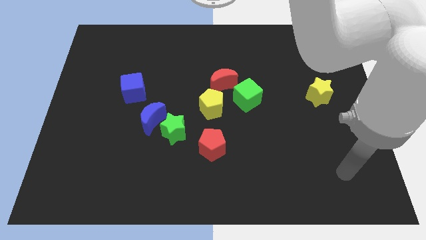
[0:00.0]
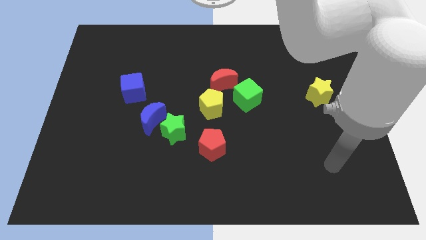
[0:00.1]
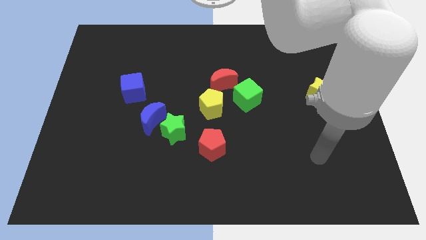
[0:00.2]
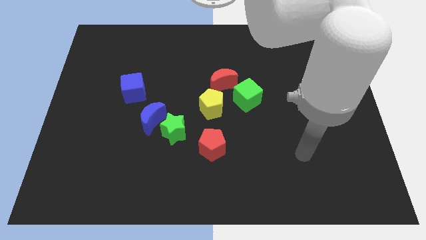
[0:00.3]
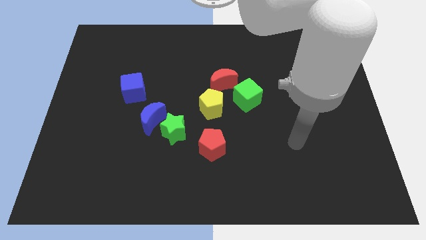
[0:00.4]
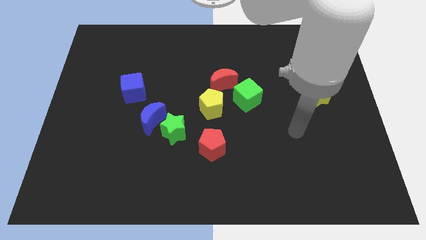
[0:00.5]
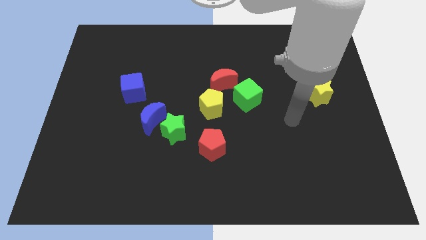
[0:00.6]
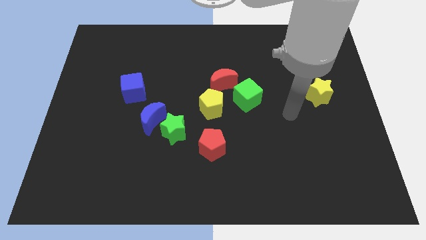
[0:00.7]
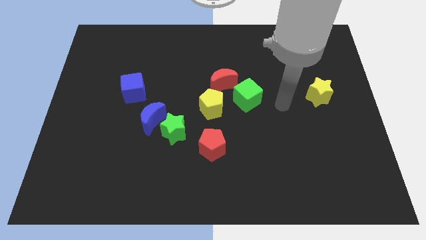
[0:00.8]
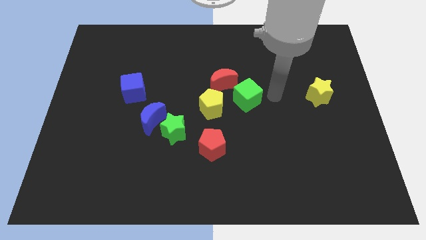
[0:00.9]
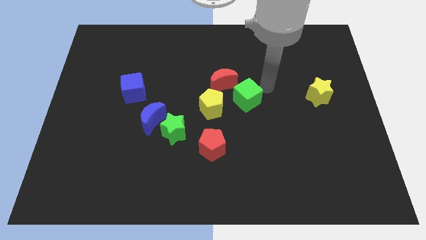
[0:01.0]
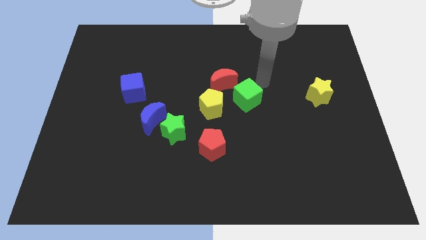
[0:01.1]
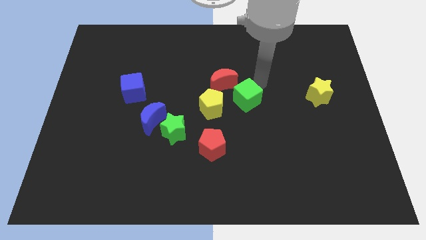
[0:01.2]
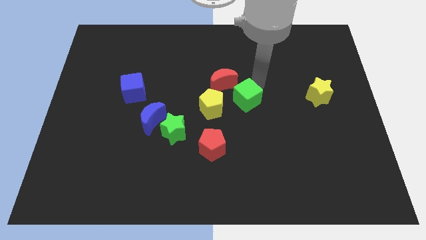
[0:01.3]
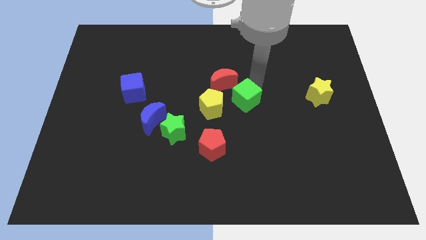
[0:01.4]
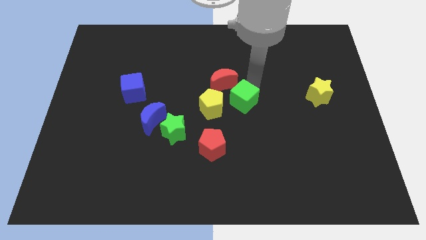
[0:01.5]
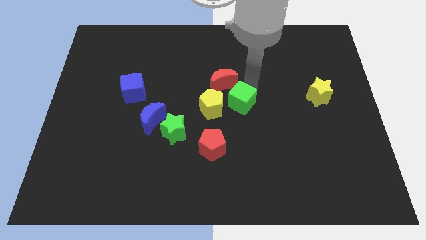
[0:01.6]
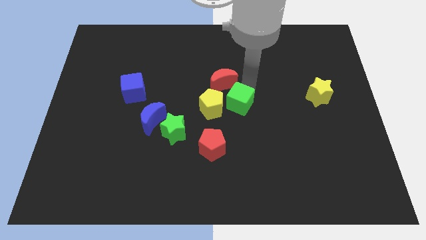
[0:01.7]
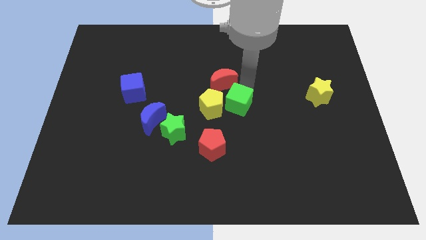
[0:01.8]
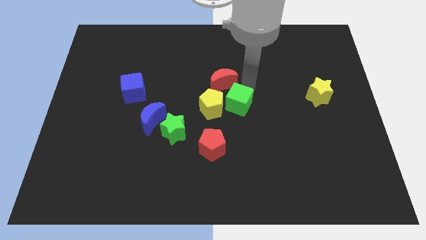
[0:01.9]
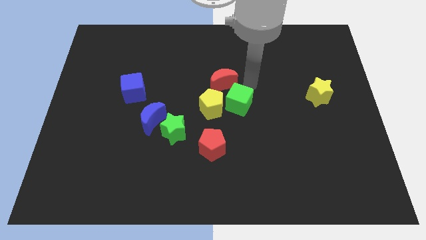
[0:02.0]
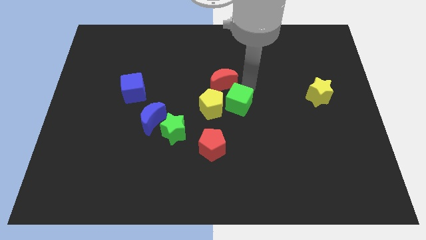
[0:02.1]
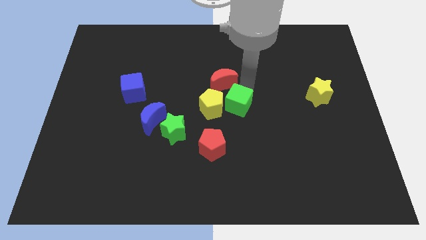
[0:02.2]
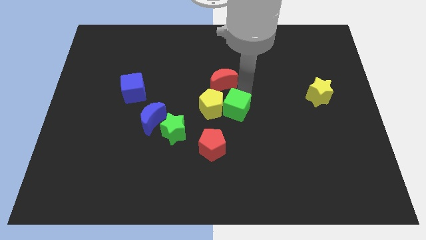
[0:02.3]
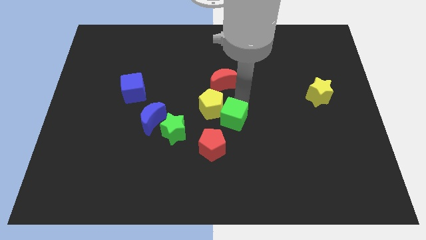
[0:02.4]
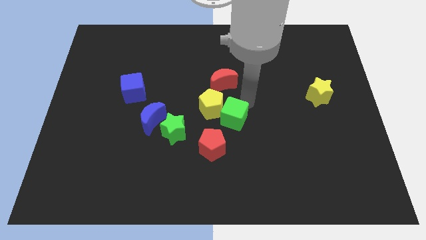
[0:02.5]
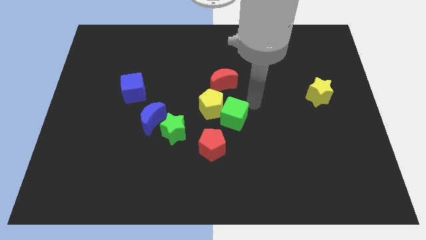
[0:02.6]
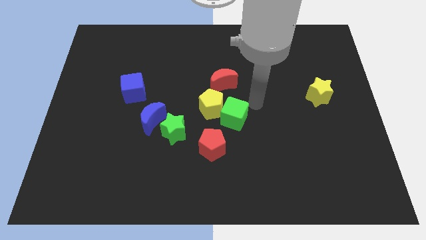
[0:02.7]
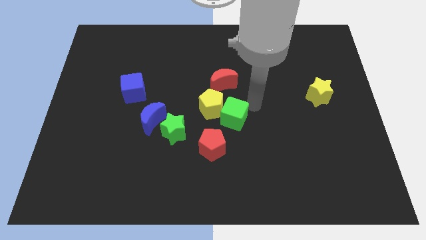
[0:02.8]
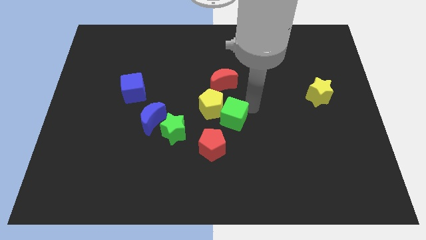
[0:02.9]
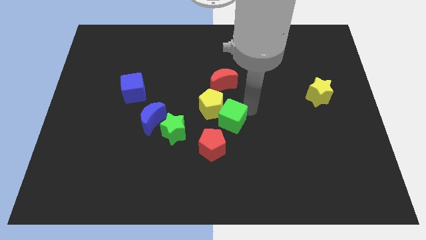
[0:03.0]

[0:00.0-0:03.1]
slide the green cube a little bit downwards and to the left diagonally

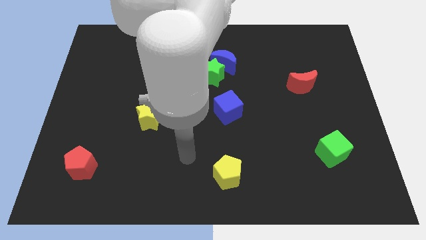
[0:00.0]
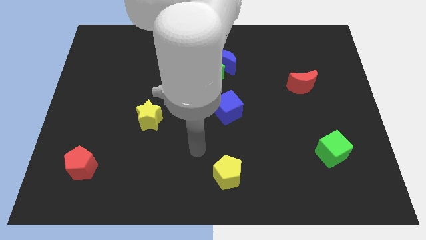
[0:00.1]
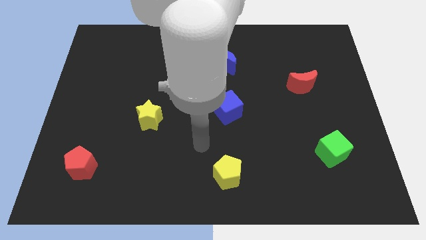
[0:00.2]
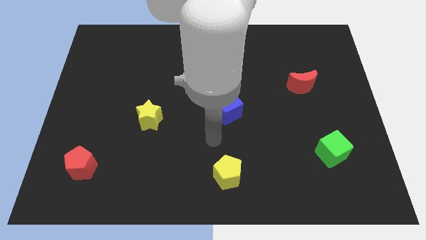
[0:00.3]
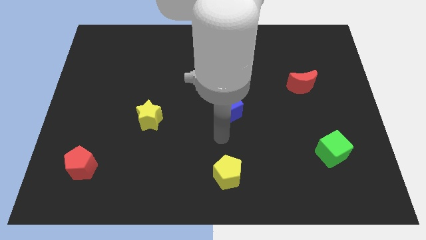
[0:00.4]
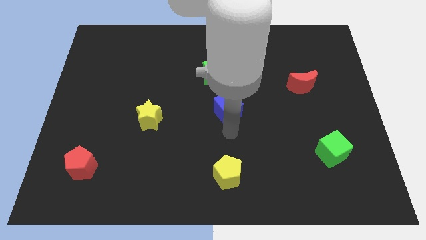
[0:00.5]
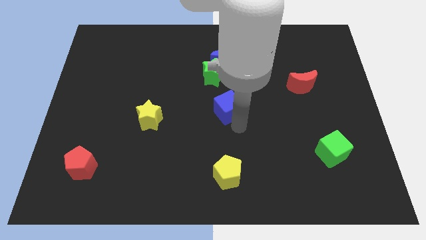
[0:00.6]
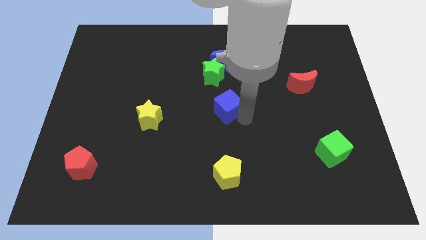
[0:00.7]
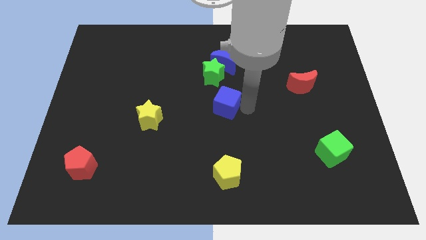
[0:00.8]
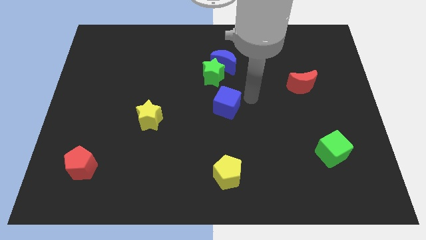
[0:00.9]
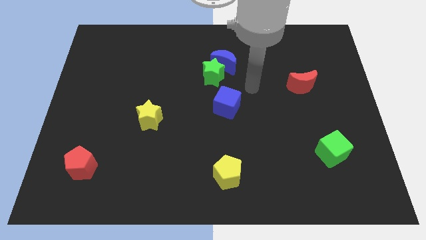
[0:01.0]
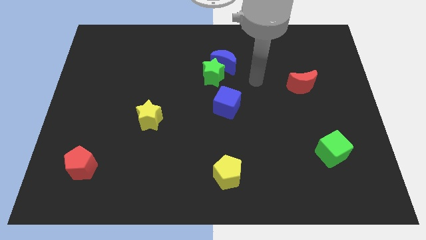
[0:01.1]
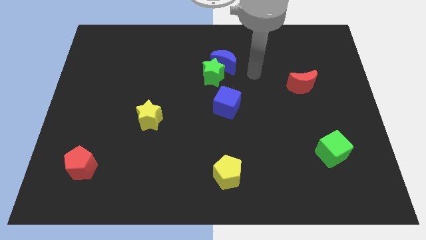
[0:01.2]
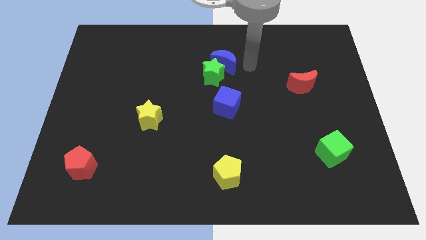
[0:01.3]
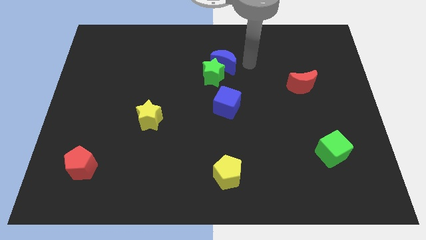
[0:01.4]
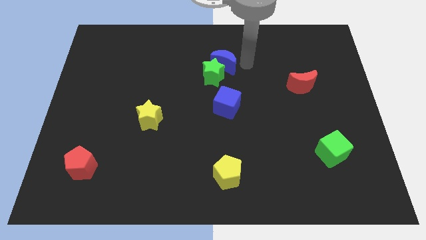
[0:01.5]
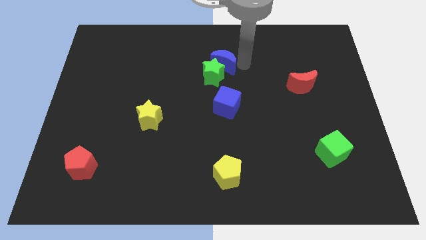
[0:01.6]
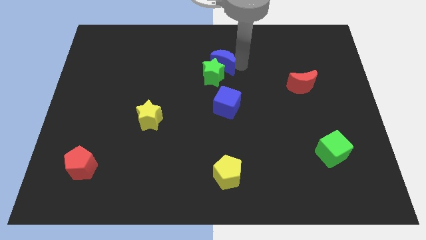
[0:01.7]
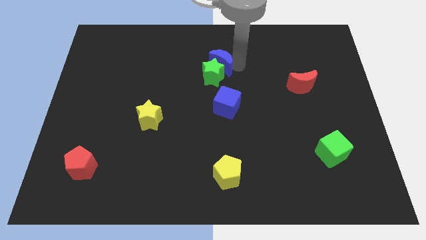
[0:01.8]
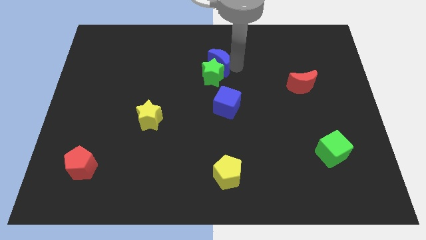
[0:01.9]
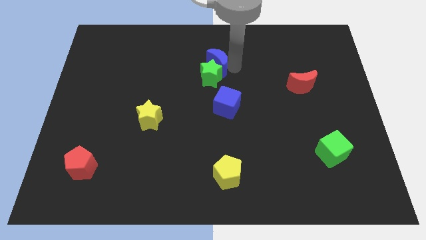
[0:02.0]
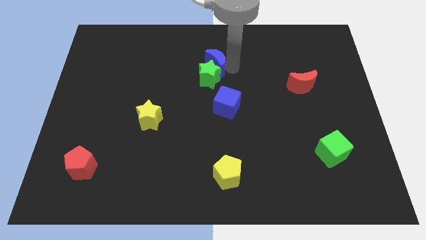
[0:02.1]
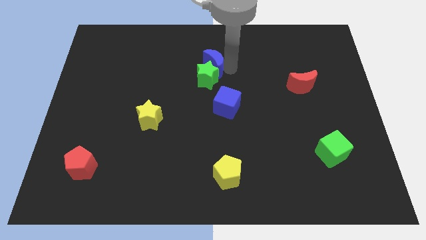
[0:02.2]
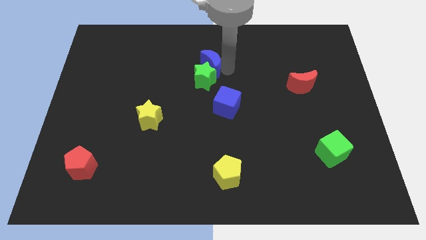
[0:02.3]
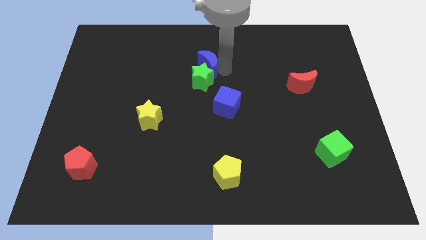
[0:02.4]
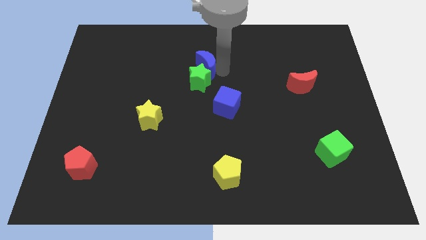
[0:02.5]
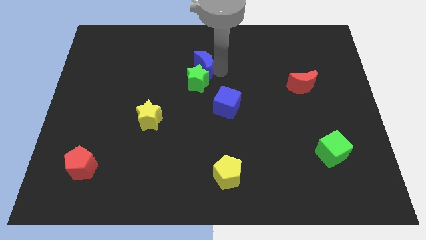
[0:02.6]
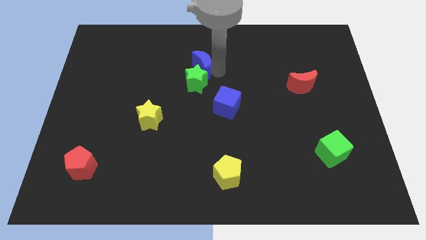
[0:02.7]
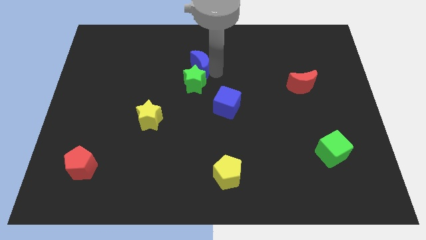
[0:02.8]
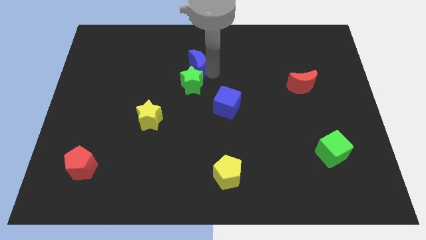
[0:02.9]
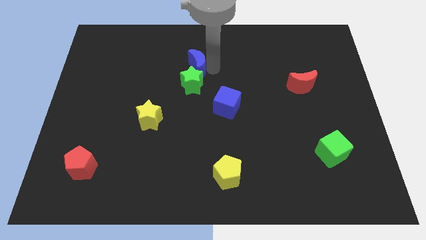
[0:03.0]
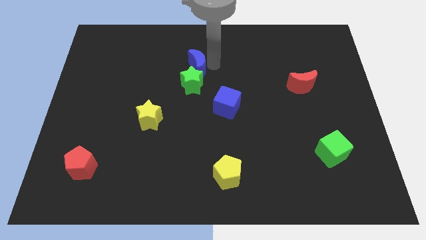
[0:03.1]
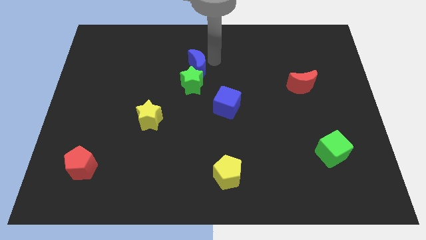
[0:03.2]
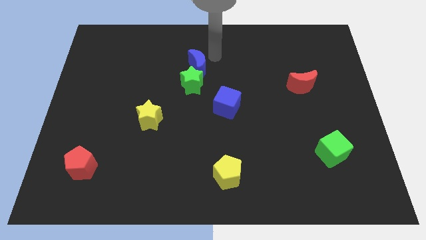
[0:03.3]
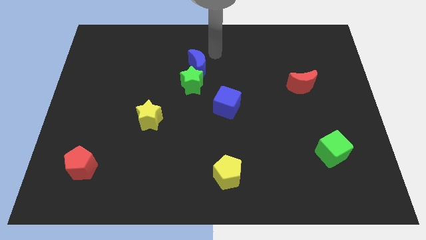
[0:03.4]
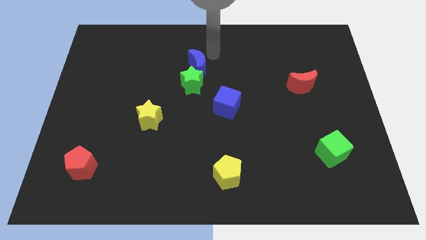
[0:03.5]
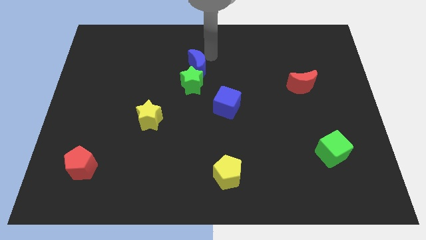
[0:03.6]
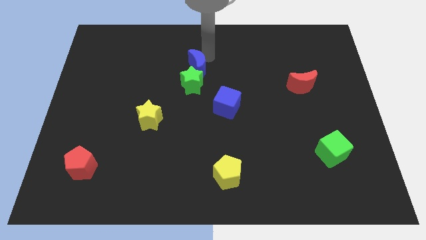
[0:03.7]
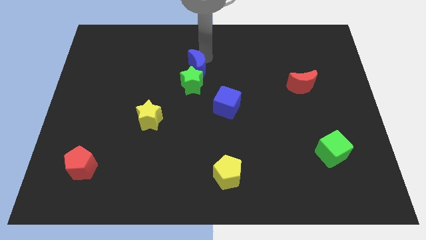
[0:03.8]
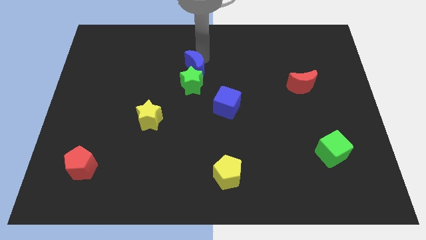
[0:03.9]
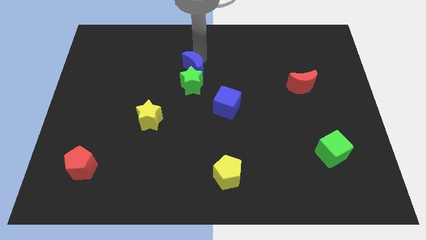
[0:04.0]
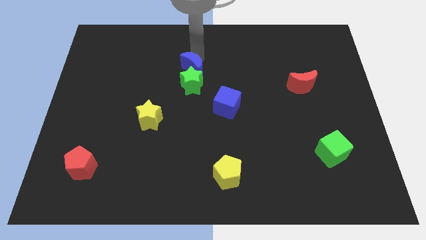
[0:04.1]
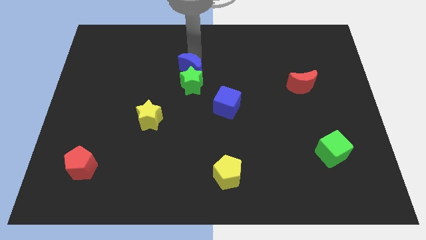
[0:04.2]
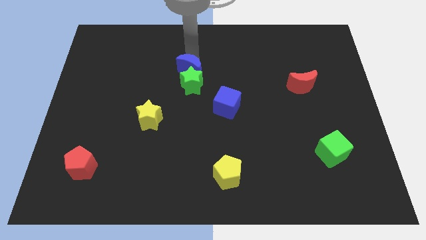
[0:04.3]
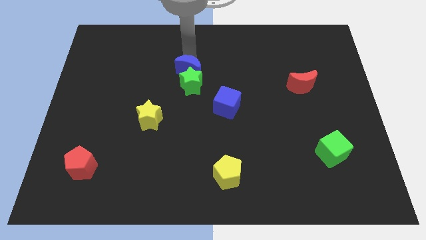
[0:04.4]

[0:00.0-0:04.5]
push the blue moon a little down and then left

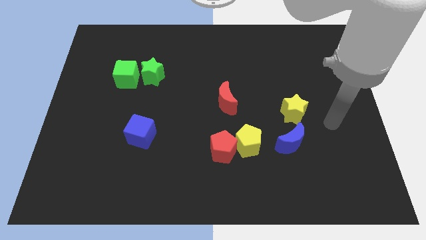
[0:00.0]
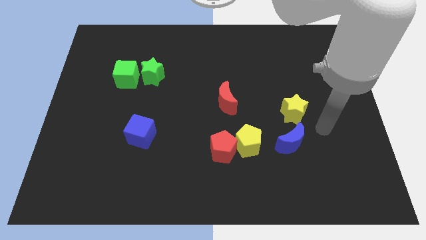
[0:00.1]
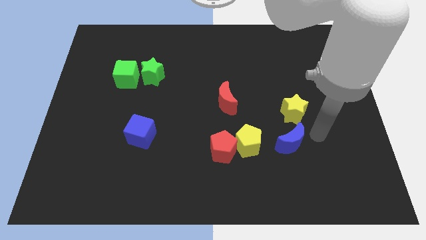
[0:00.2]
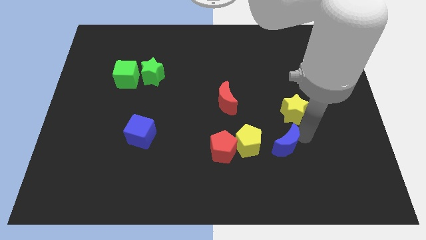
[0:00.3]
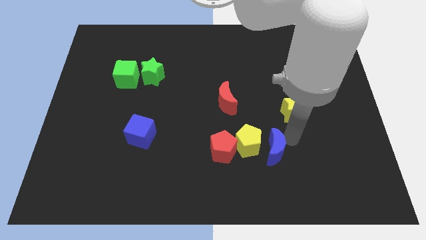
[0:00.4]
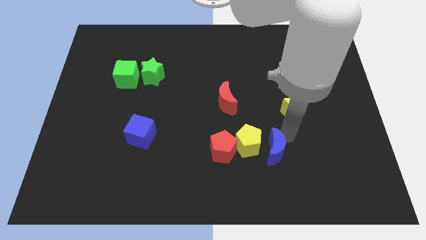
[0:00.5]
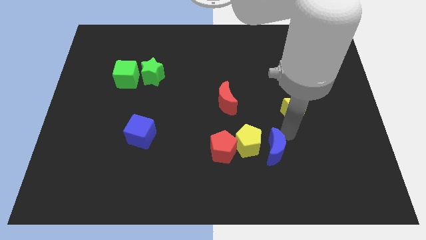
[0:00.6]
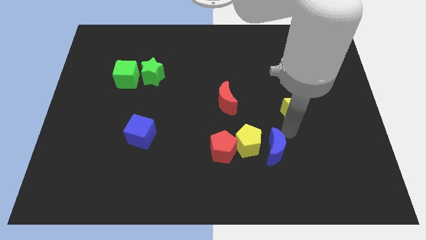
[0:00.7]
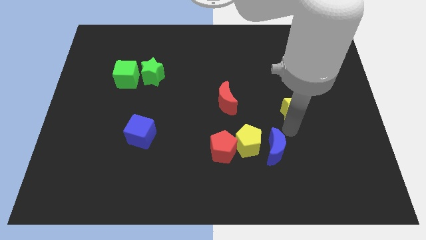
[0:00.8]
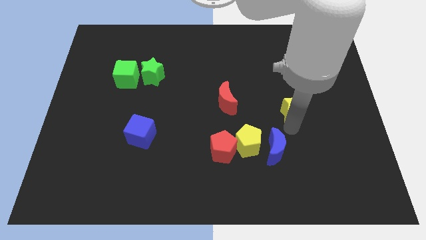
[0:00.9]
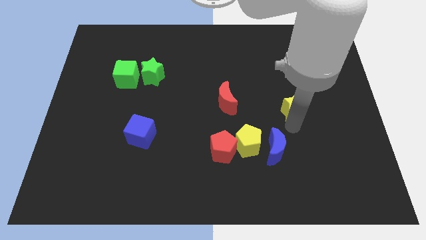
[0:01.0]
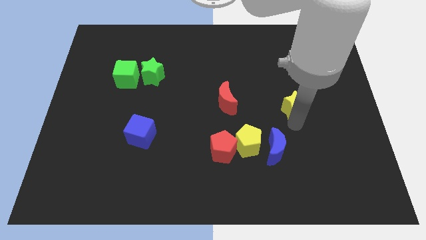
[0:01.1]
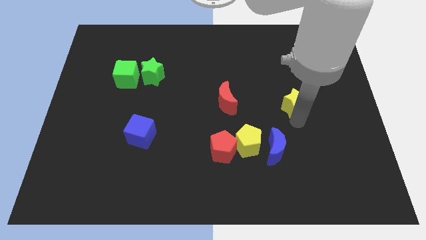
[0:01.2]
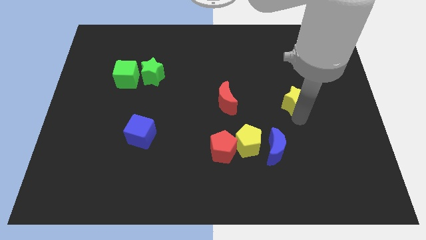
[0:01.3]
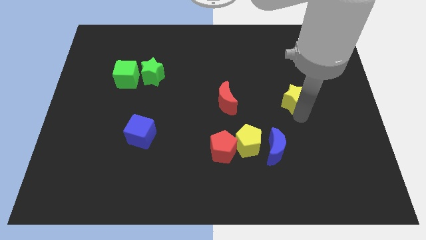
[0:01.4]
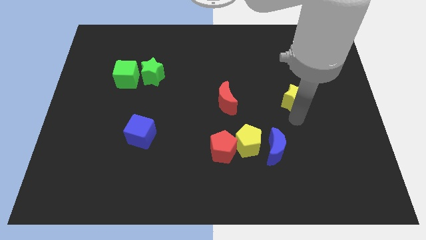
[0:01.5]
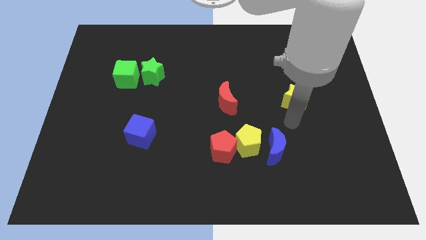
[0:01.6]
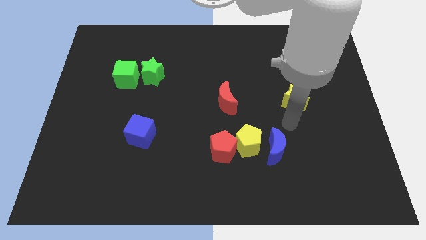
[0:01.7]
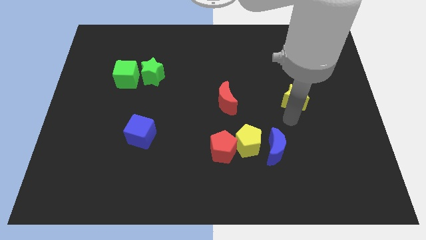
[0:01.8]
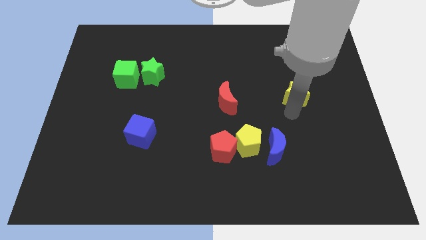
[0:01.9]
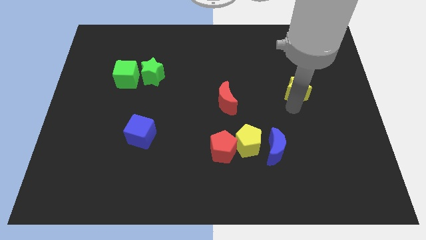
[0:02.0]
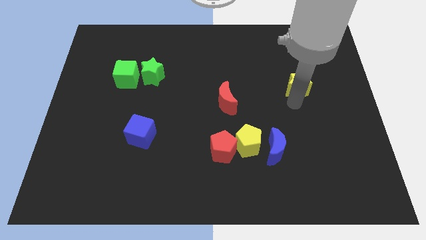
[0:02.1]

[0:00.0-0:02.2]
slightly slide the yellow star upwards
